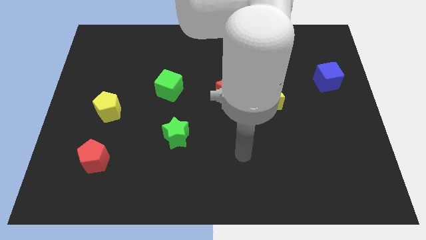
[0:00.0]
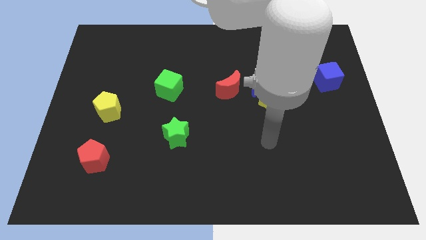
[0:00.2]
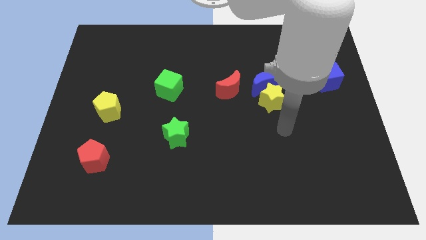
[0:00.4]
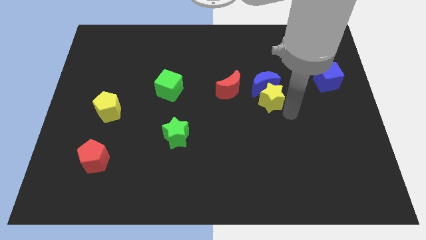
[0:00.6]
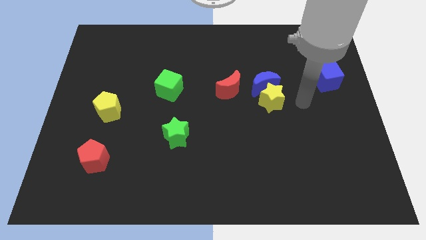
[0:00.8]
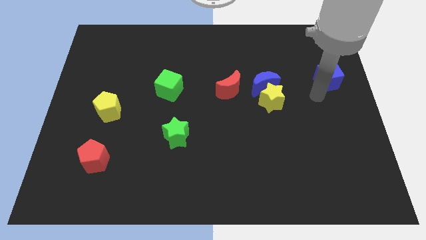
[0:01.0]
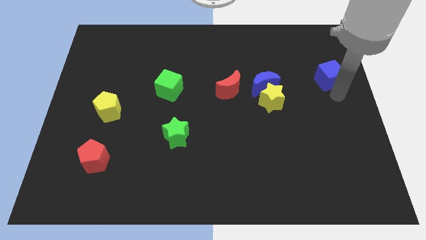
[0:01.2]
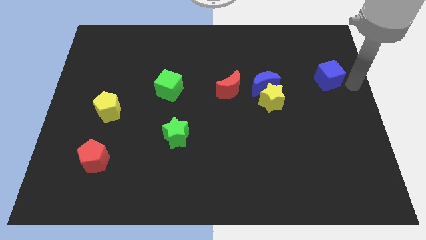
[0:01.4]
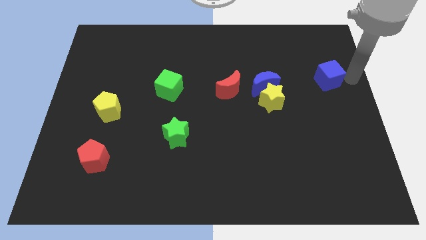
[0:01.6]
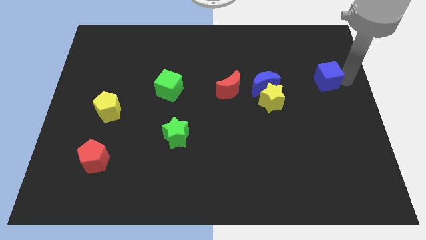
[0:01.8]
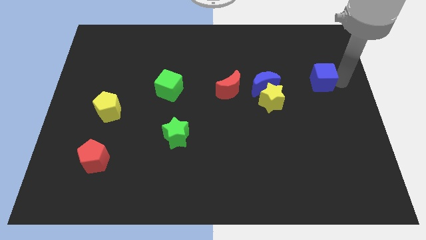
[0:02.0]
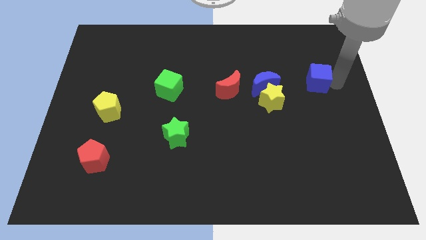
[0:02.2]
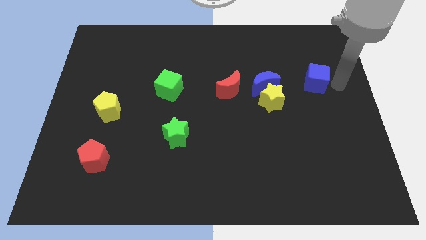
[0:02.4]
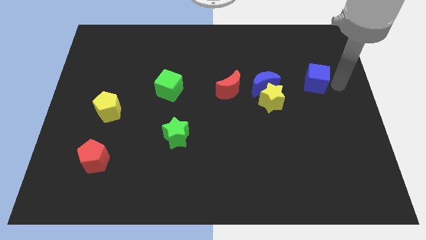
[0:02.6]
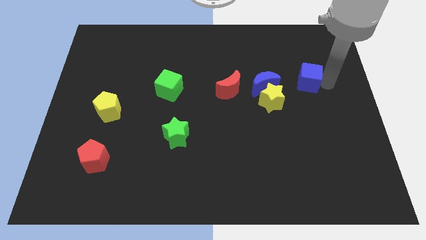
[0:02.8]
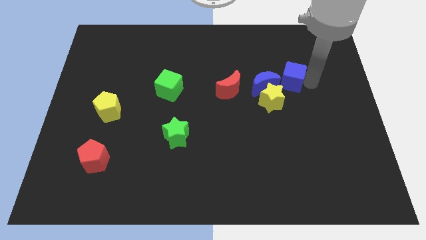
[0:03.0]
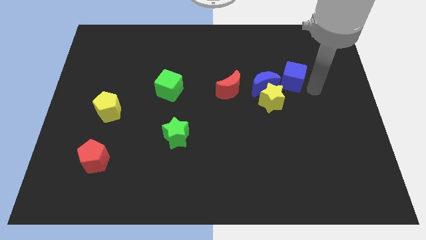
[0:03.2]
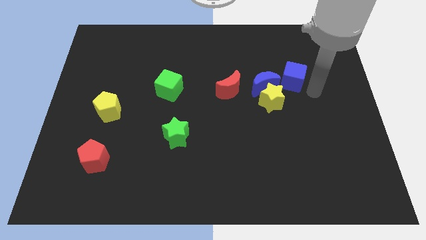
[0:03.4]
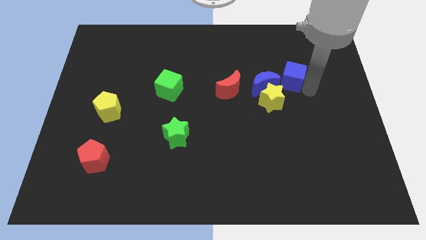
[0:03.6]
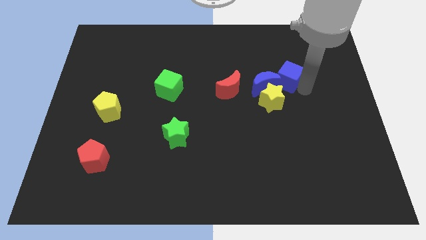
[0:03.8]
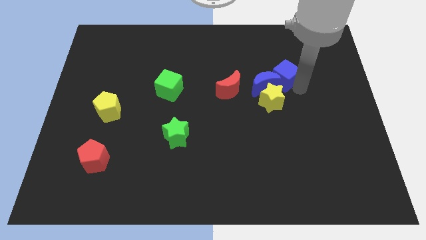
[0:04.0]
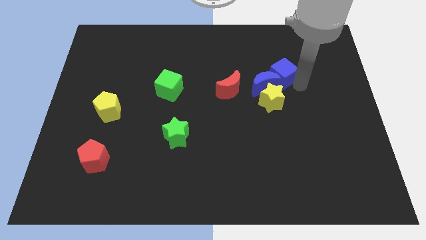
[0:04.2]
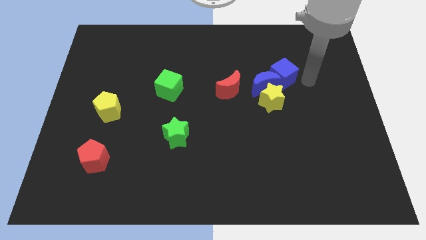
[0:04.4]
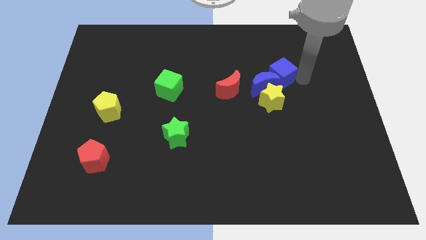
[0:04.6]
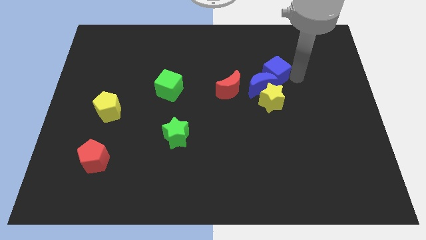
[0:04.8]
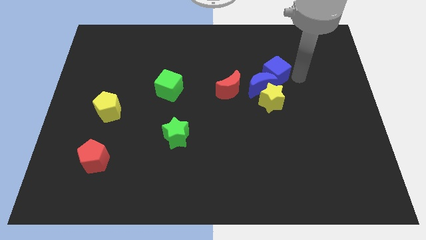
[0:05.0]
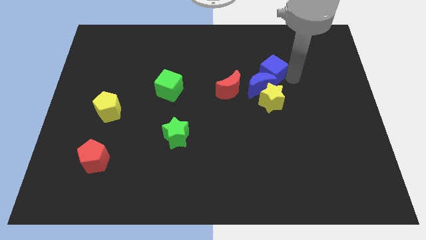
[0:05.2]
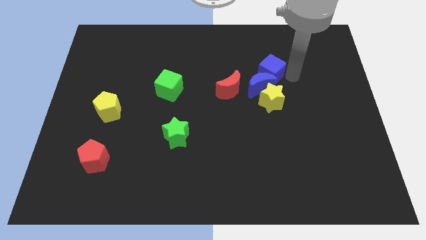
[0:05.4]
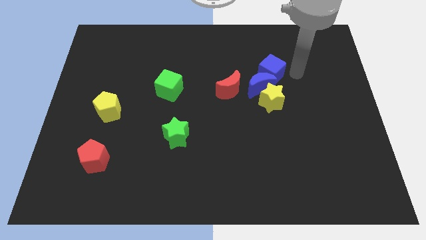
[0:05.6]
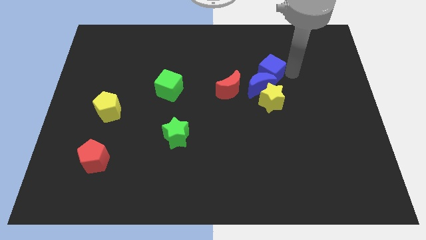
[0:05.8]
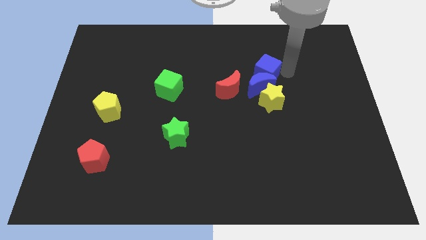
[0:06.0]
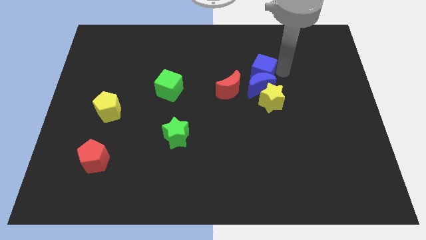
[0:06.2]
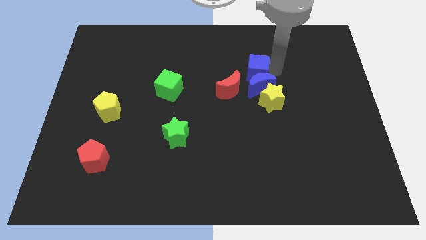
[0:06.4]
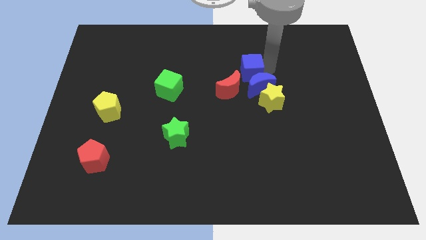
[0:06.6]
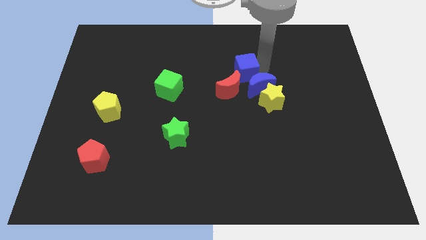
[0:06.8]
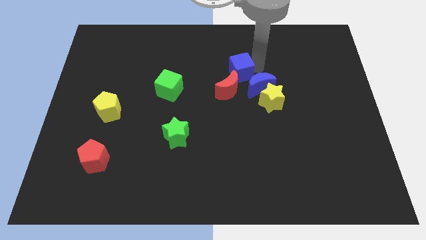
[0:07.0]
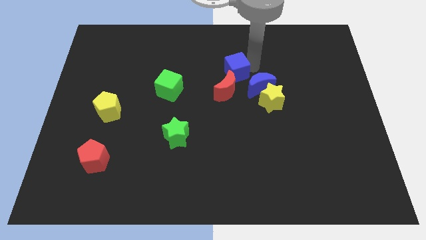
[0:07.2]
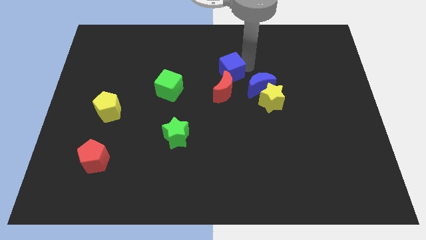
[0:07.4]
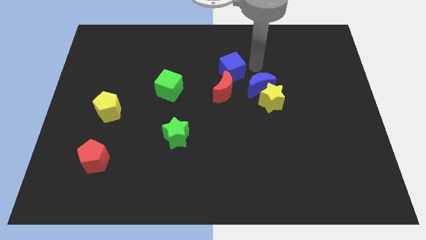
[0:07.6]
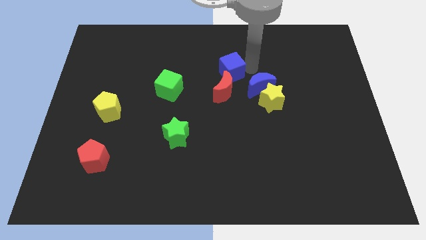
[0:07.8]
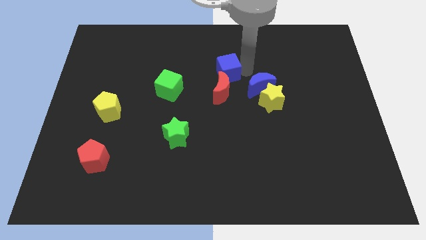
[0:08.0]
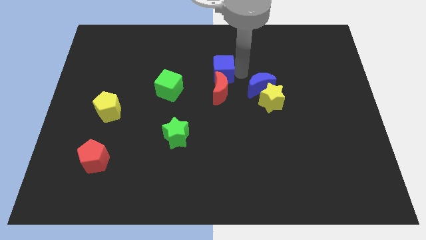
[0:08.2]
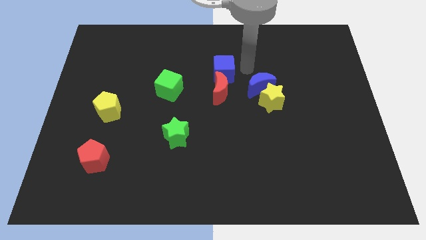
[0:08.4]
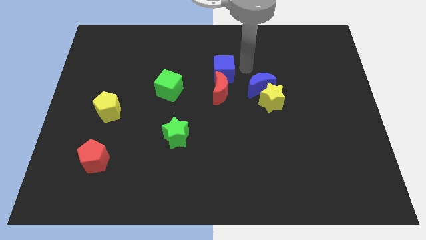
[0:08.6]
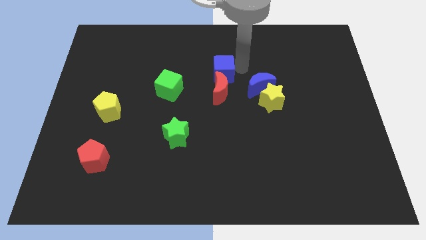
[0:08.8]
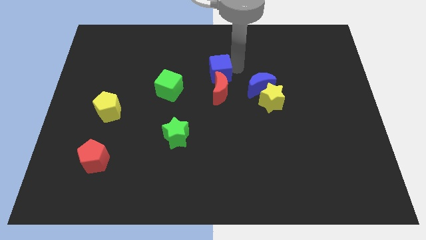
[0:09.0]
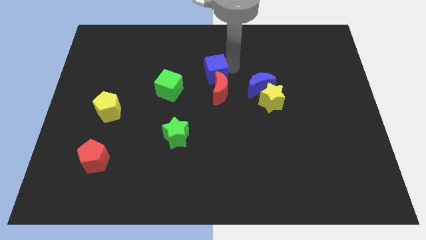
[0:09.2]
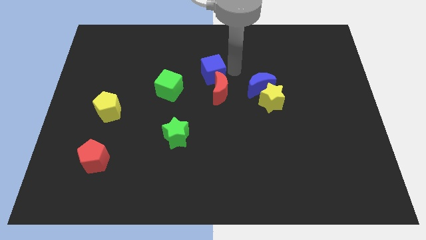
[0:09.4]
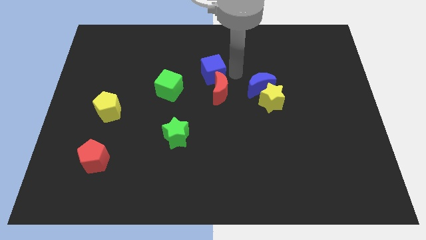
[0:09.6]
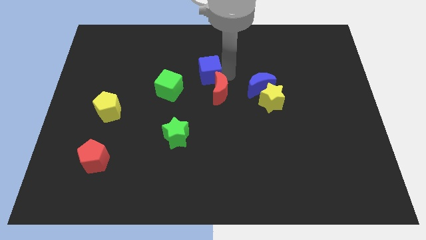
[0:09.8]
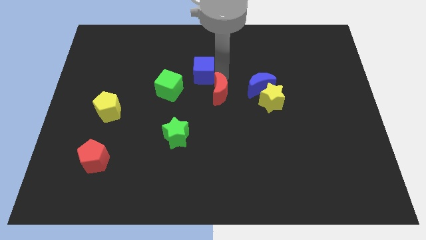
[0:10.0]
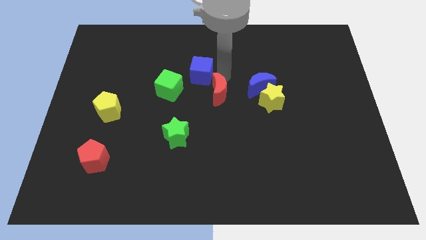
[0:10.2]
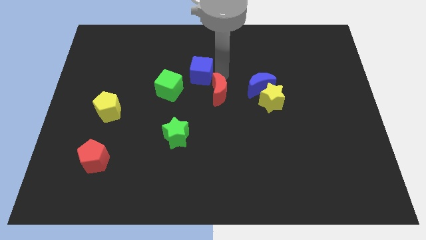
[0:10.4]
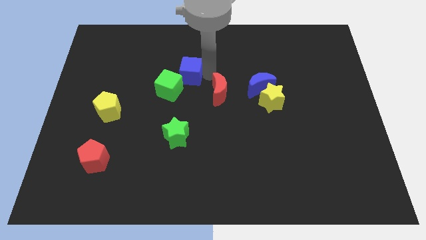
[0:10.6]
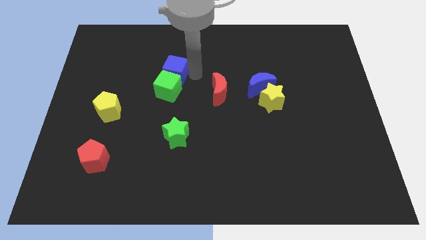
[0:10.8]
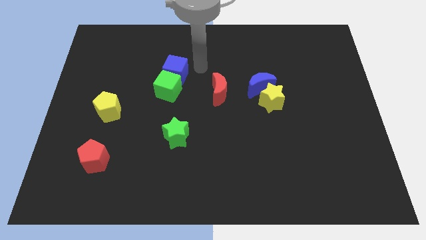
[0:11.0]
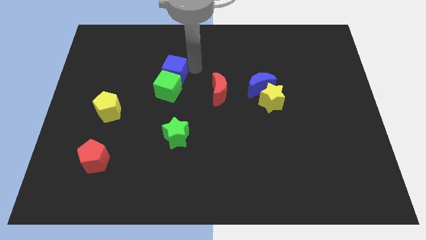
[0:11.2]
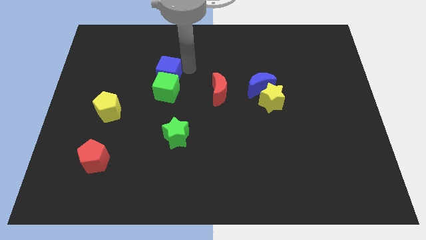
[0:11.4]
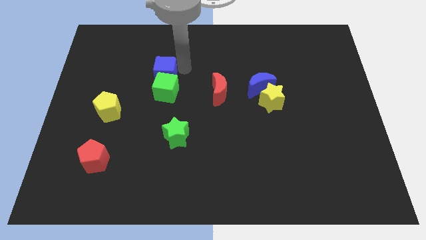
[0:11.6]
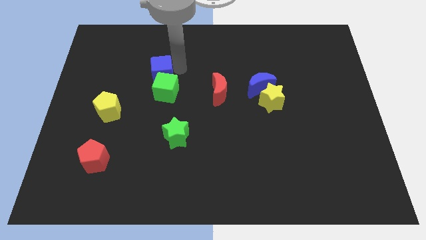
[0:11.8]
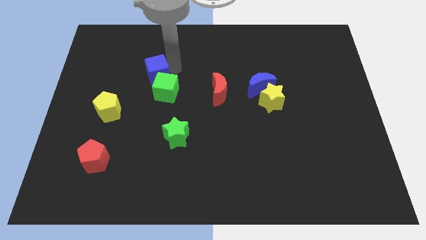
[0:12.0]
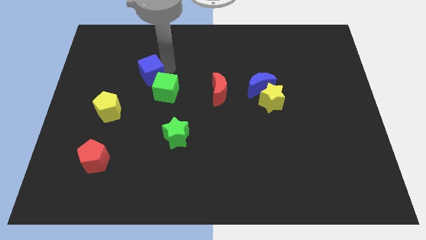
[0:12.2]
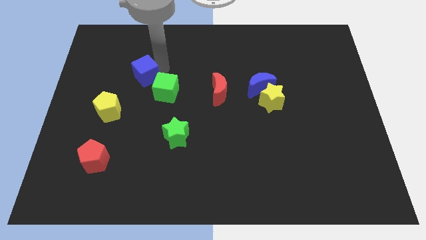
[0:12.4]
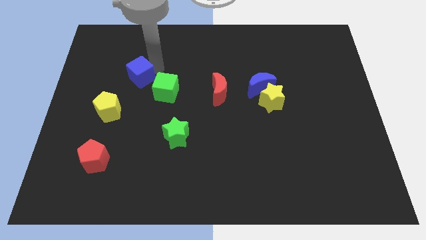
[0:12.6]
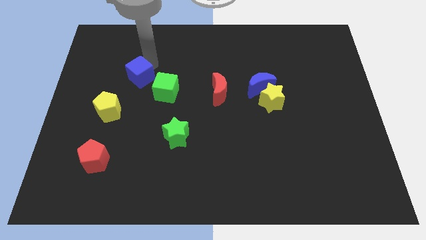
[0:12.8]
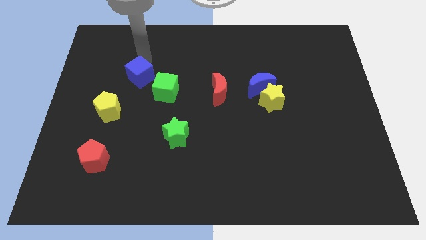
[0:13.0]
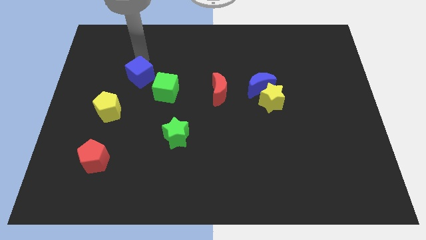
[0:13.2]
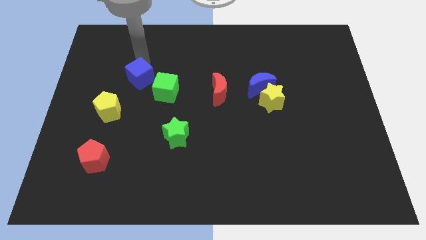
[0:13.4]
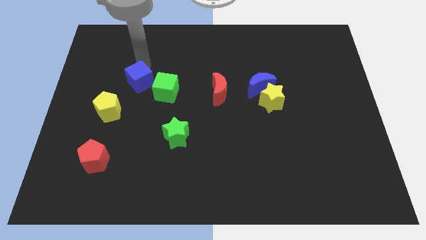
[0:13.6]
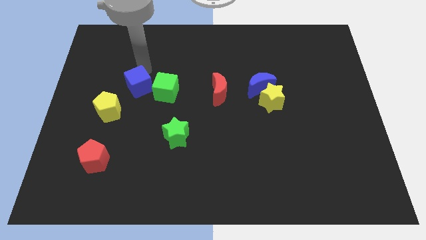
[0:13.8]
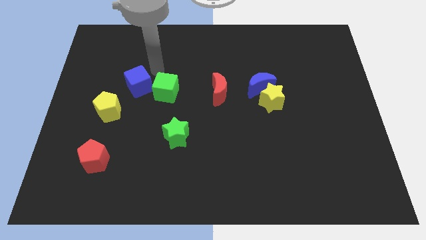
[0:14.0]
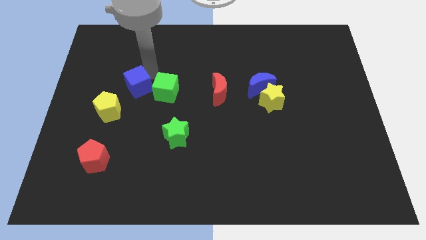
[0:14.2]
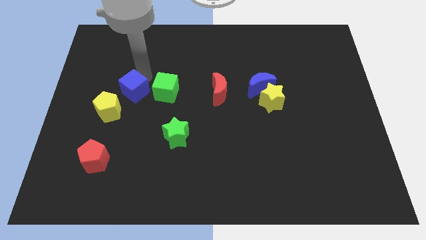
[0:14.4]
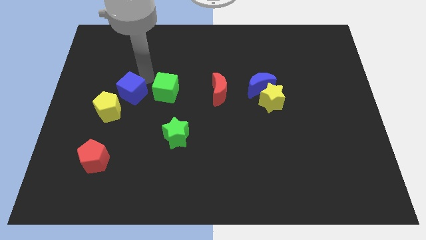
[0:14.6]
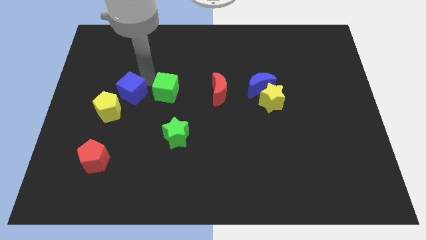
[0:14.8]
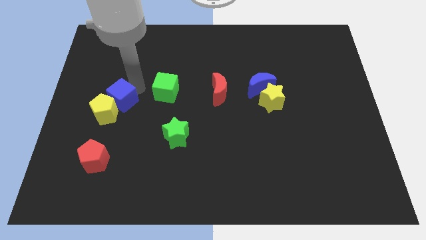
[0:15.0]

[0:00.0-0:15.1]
slide the blue cube to the yellow pentagon
